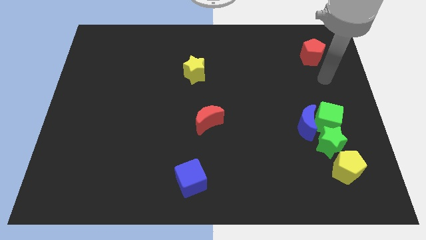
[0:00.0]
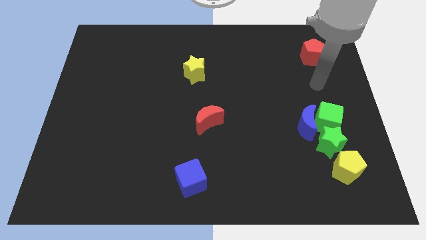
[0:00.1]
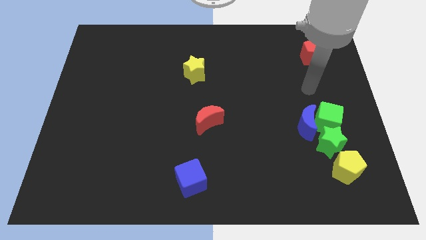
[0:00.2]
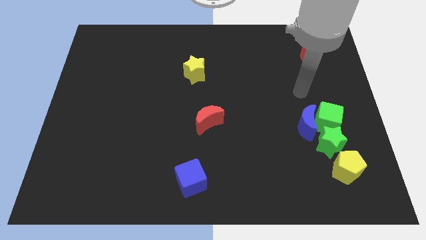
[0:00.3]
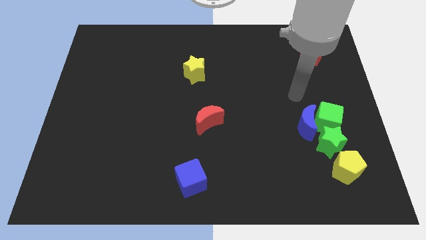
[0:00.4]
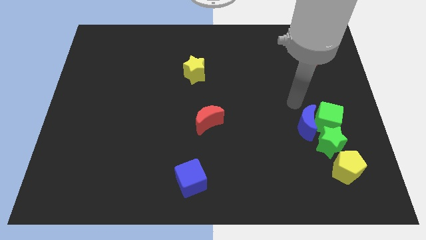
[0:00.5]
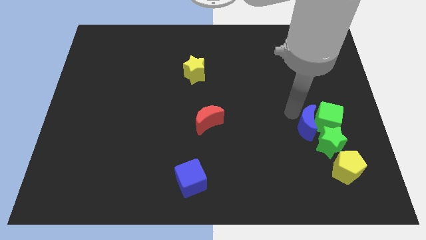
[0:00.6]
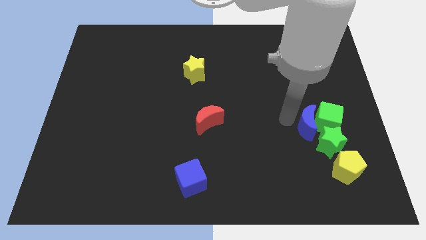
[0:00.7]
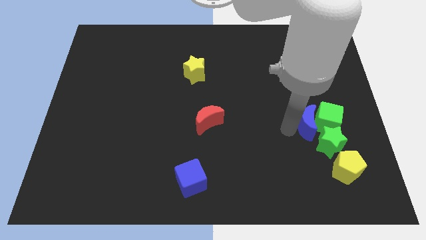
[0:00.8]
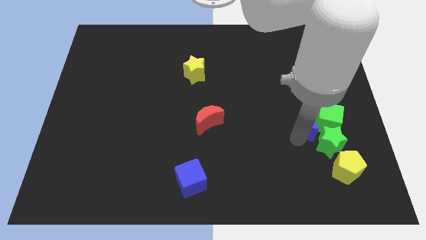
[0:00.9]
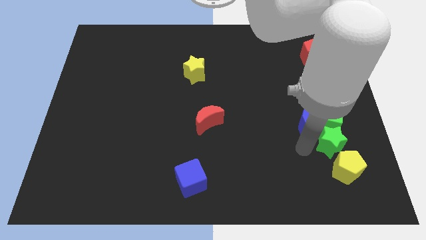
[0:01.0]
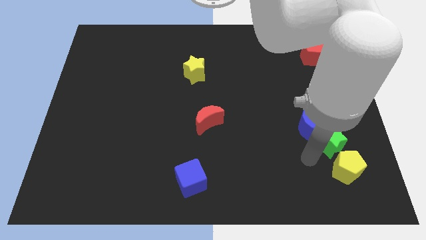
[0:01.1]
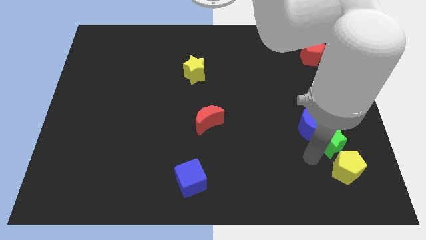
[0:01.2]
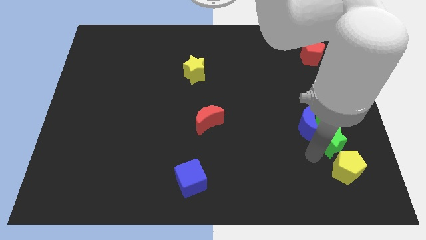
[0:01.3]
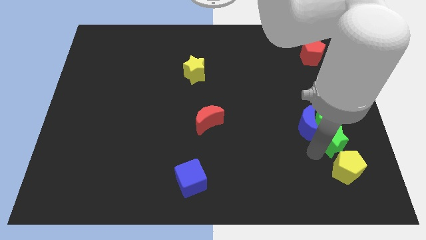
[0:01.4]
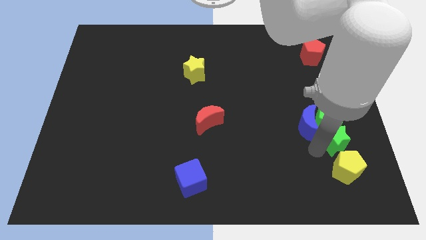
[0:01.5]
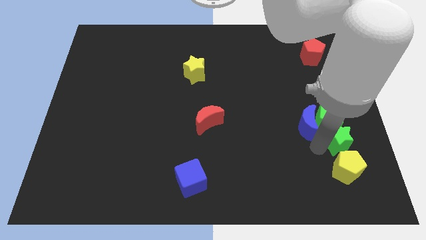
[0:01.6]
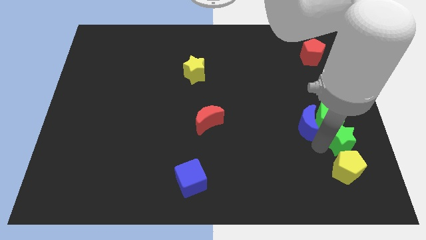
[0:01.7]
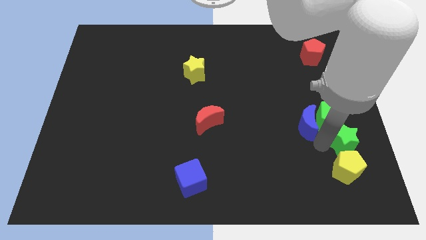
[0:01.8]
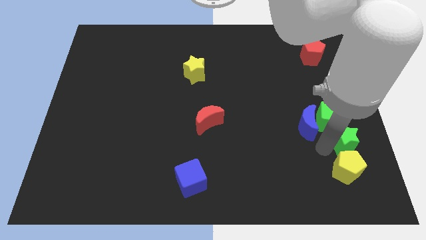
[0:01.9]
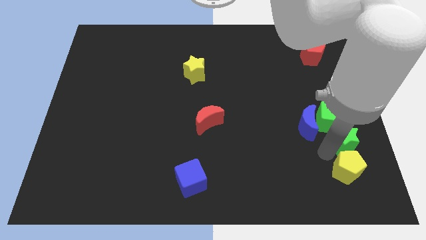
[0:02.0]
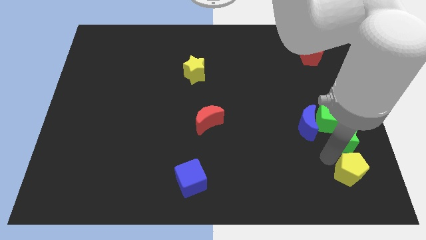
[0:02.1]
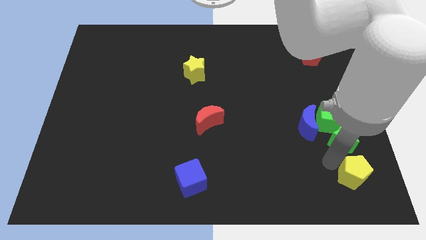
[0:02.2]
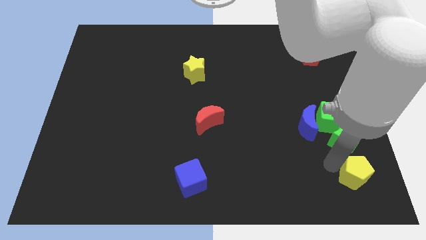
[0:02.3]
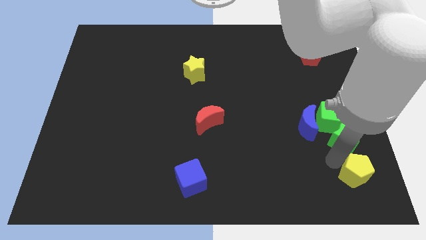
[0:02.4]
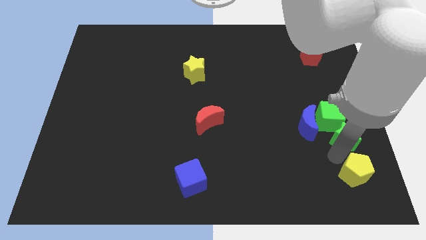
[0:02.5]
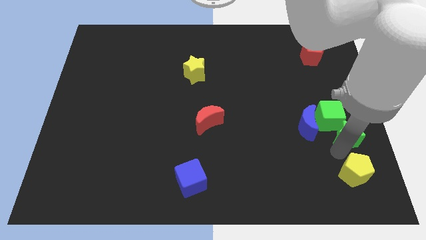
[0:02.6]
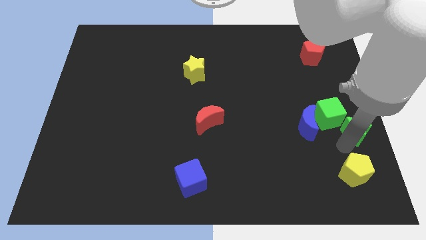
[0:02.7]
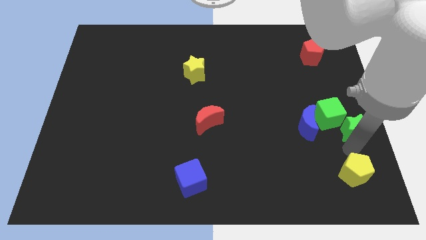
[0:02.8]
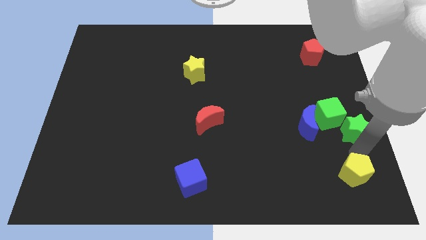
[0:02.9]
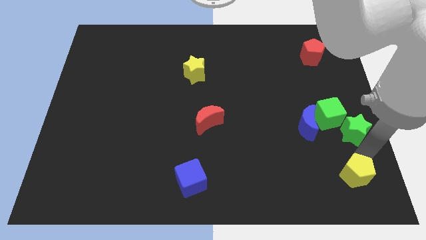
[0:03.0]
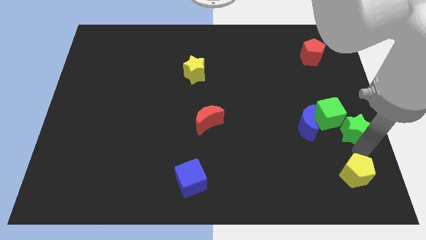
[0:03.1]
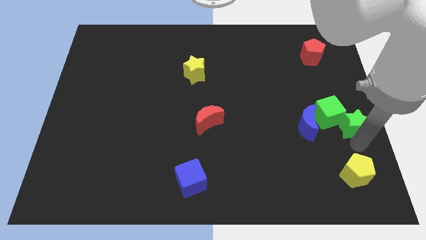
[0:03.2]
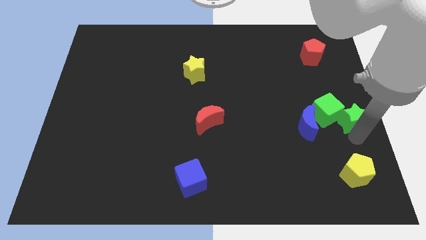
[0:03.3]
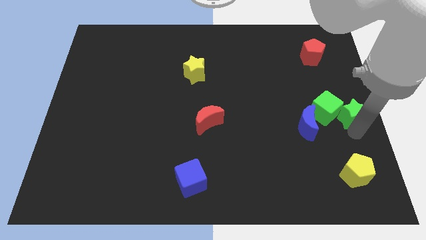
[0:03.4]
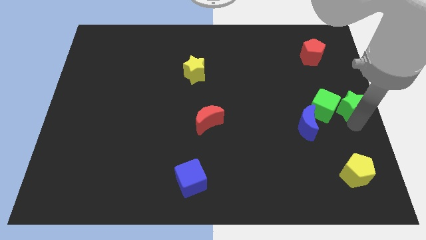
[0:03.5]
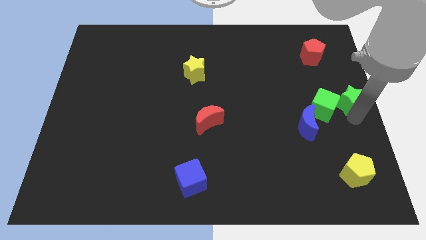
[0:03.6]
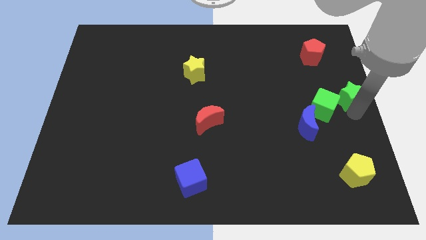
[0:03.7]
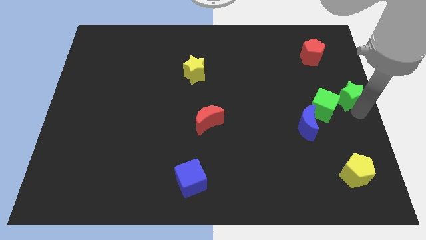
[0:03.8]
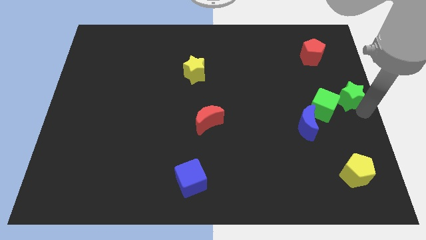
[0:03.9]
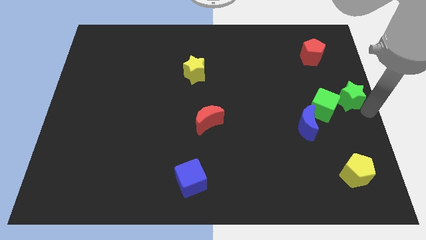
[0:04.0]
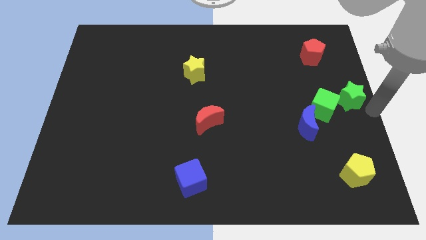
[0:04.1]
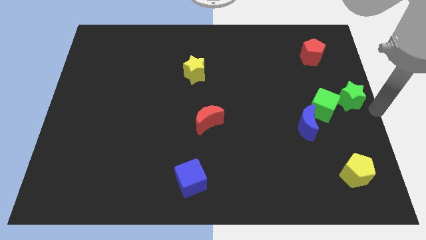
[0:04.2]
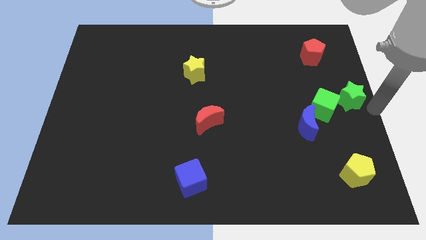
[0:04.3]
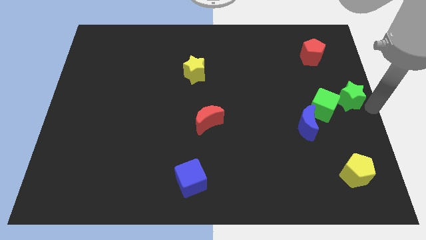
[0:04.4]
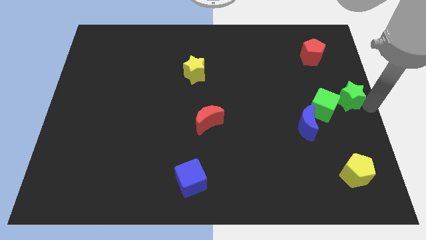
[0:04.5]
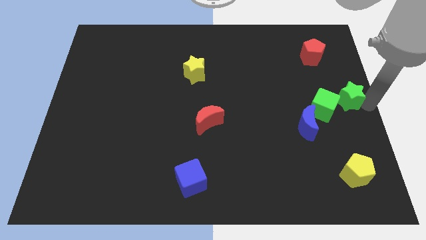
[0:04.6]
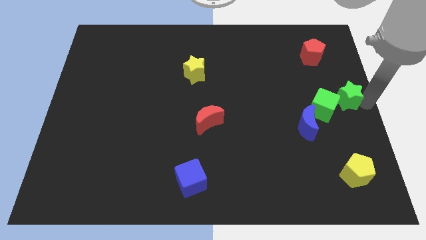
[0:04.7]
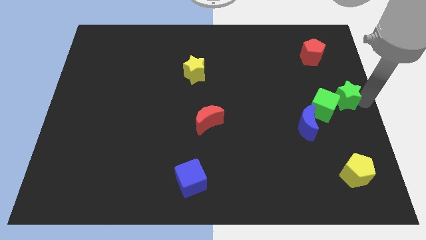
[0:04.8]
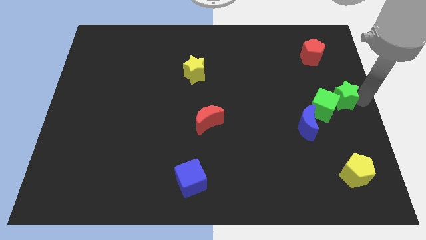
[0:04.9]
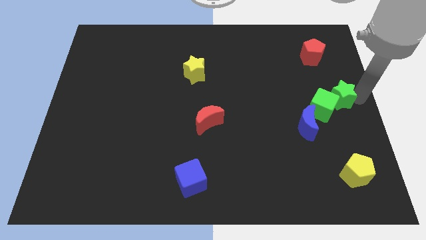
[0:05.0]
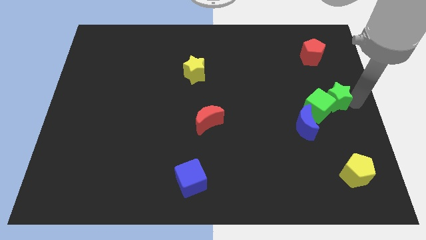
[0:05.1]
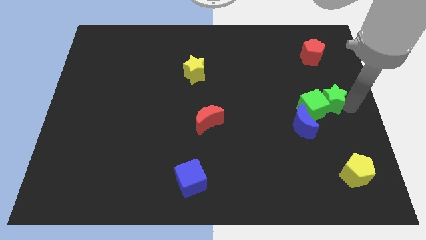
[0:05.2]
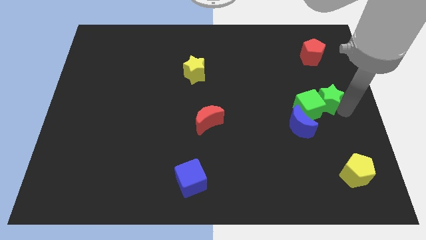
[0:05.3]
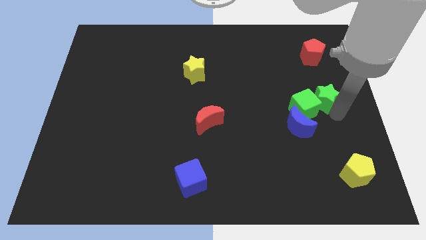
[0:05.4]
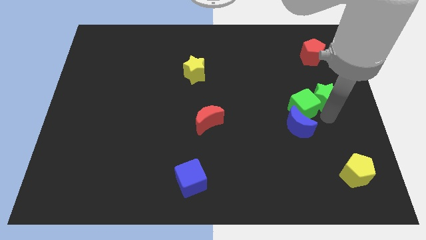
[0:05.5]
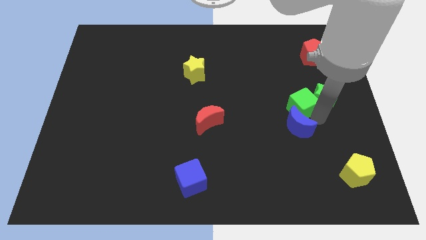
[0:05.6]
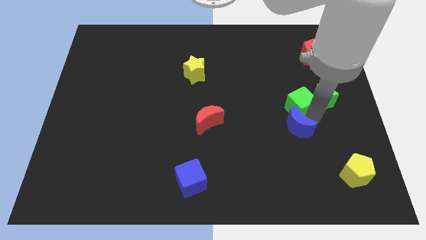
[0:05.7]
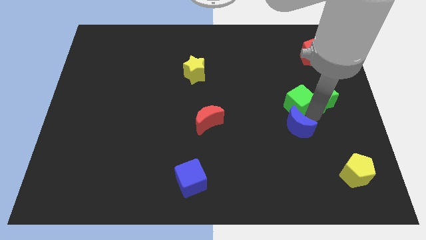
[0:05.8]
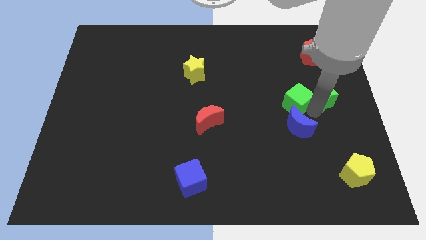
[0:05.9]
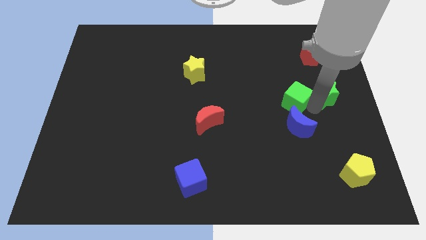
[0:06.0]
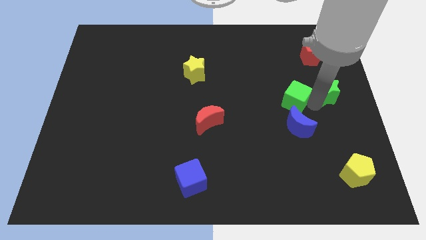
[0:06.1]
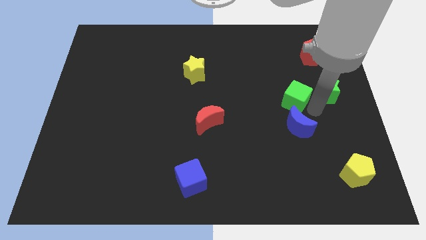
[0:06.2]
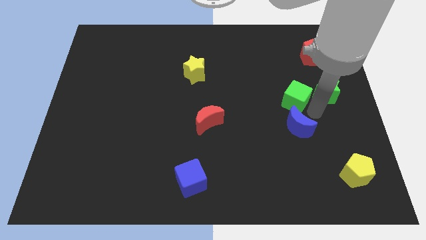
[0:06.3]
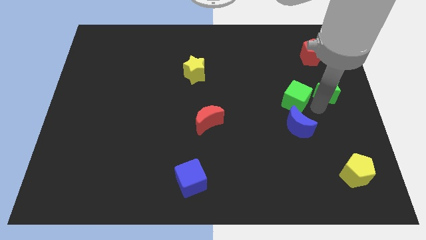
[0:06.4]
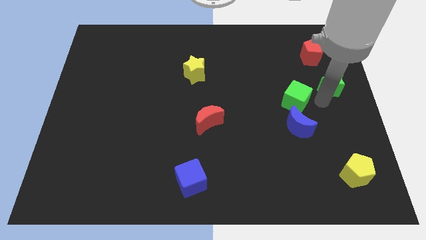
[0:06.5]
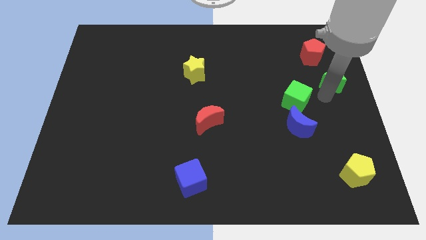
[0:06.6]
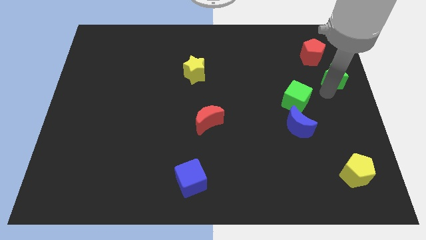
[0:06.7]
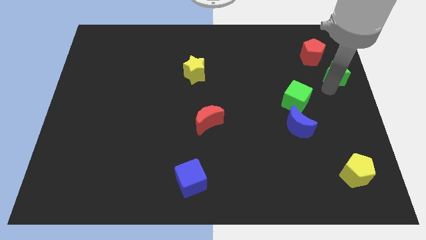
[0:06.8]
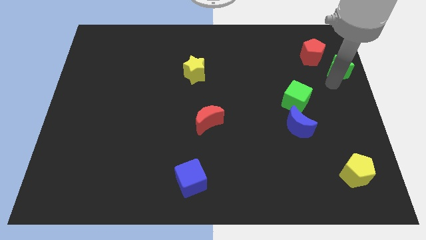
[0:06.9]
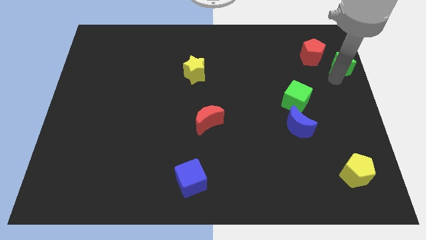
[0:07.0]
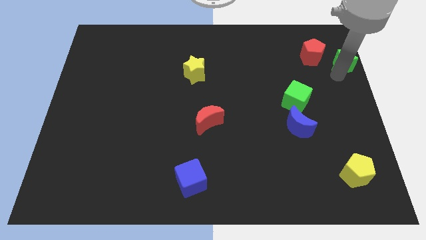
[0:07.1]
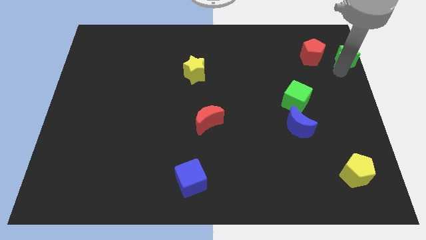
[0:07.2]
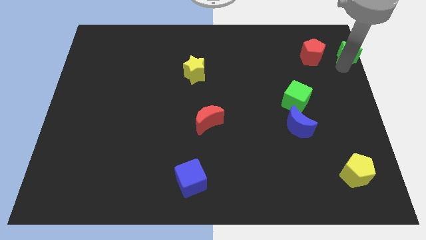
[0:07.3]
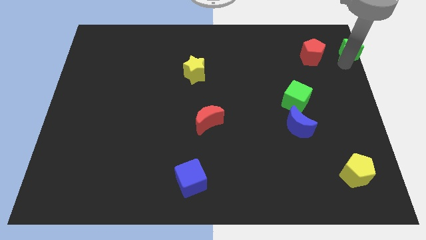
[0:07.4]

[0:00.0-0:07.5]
put the green star to the top right of the board
